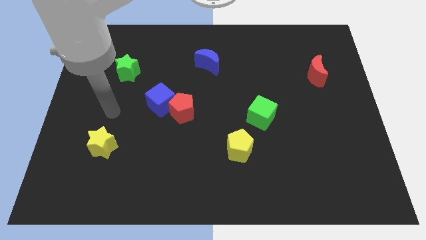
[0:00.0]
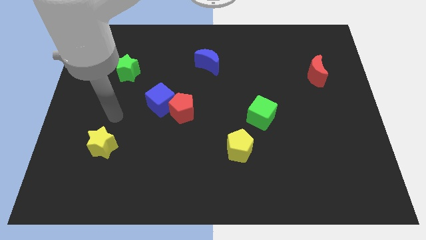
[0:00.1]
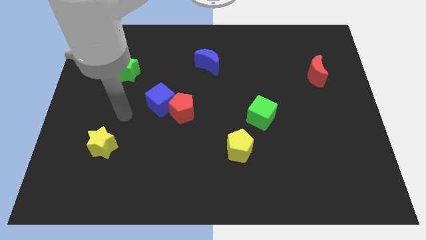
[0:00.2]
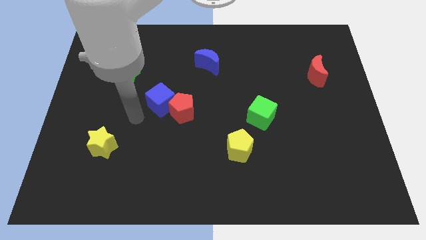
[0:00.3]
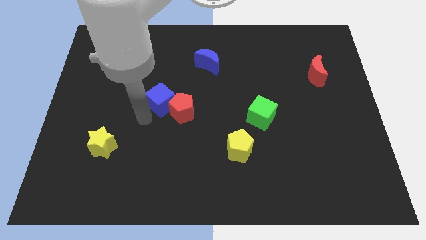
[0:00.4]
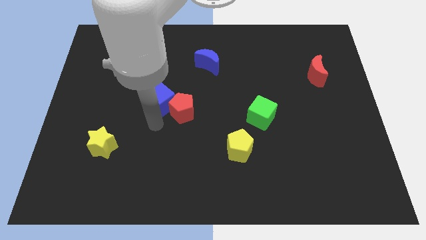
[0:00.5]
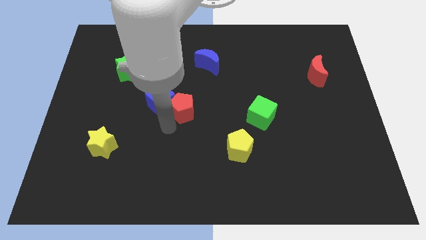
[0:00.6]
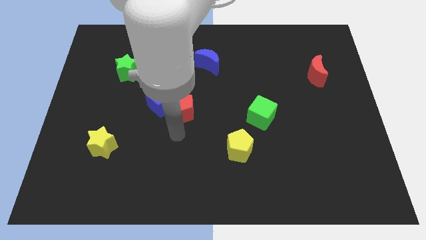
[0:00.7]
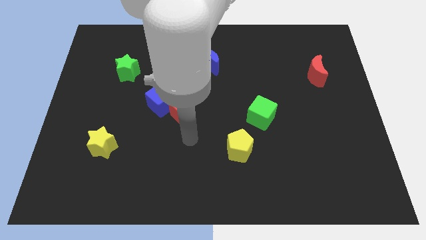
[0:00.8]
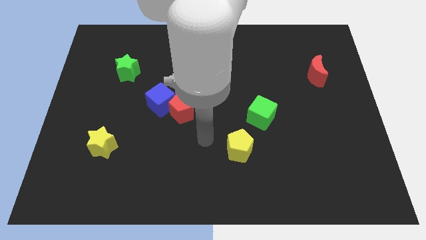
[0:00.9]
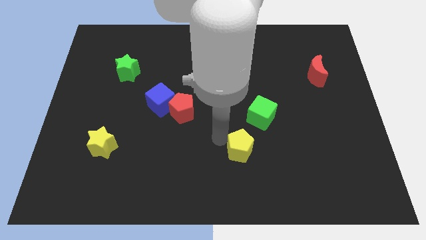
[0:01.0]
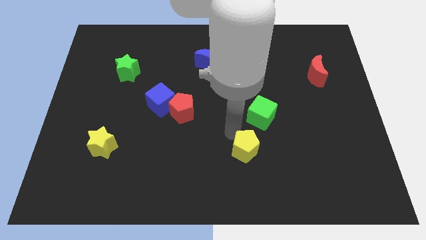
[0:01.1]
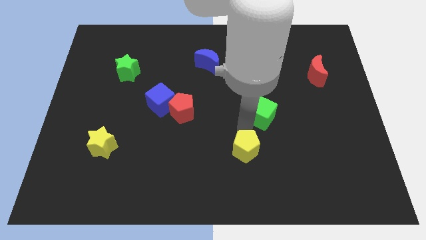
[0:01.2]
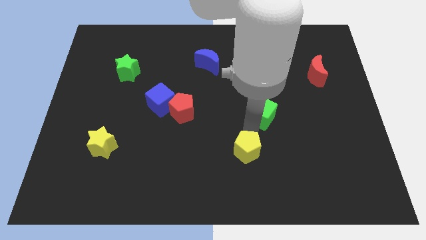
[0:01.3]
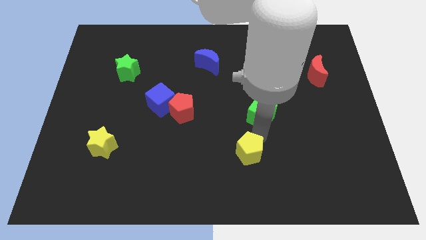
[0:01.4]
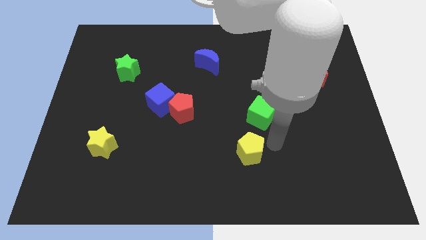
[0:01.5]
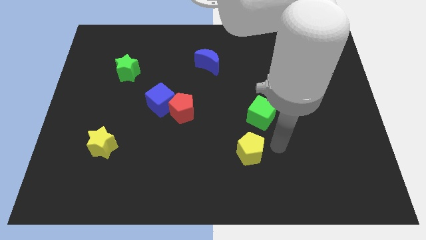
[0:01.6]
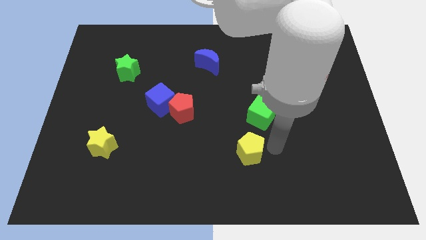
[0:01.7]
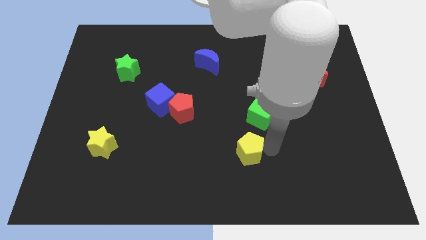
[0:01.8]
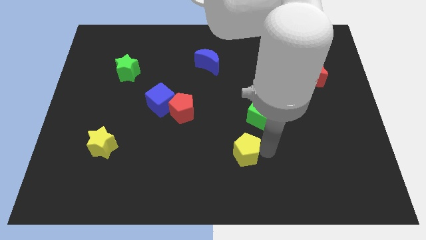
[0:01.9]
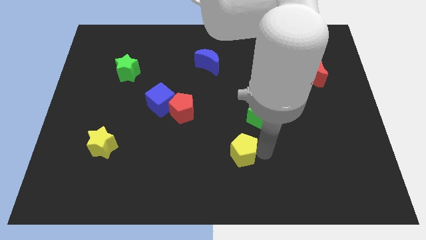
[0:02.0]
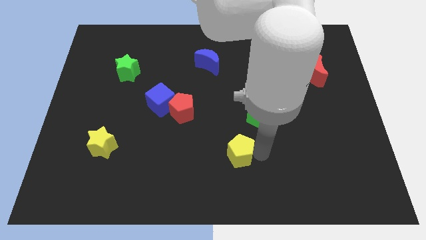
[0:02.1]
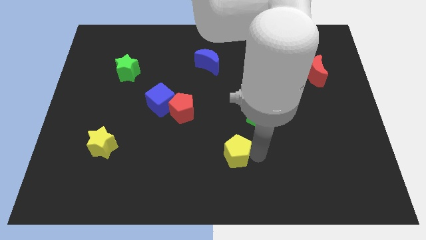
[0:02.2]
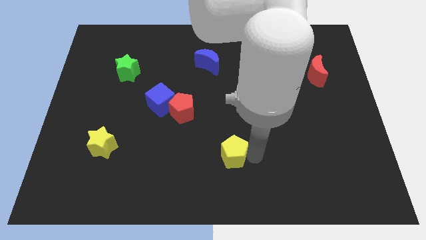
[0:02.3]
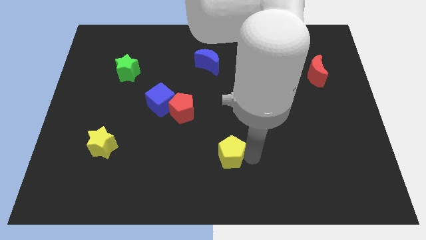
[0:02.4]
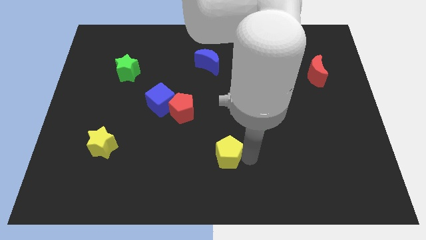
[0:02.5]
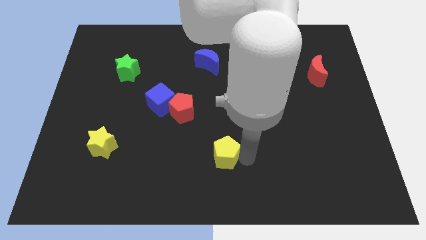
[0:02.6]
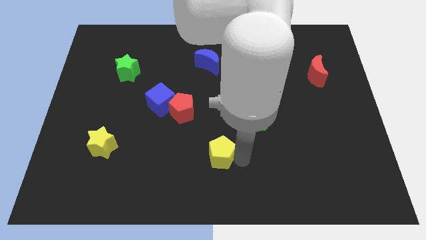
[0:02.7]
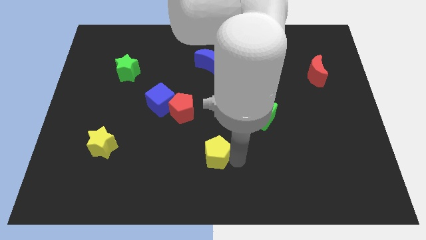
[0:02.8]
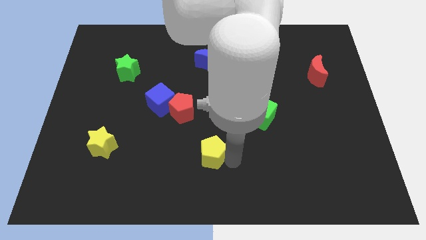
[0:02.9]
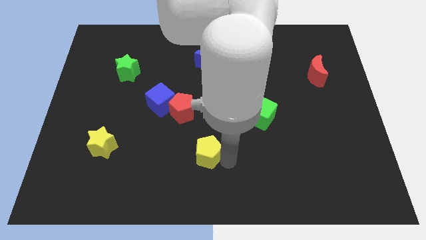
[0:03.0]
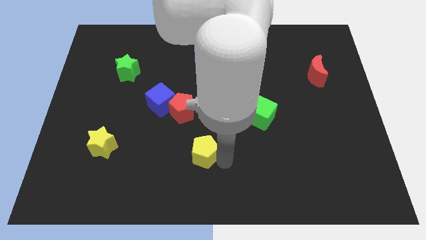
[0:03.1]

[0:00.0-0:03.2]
slightly move the yellow pentagon left

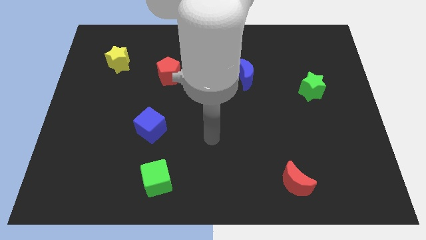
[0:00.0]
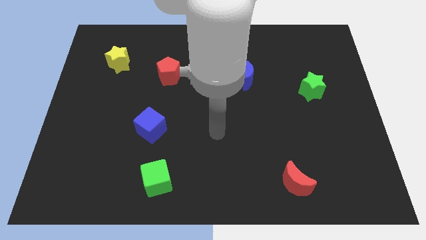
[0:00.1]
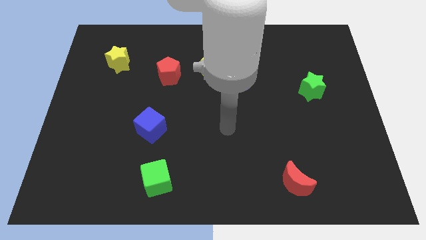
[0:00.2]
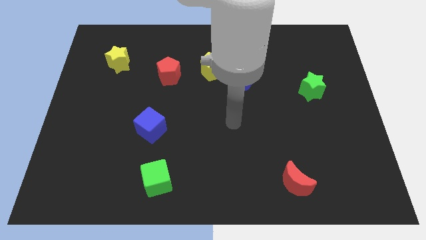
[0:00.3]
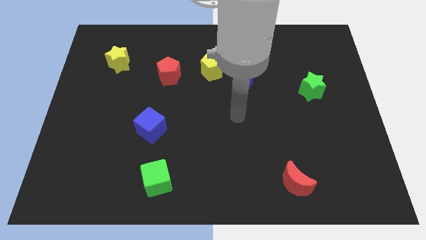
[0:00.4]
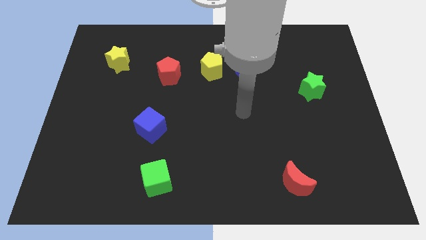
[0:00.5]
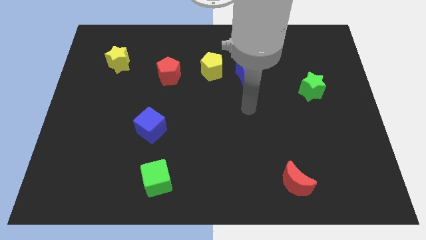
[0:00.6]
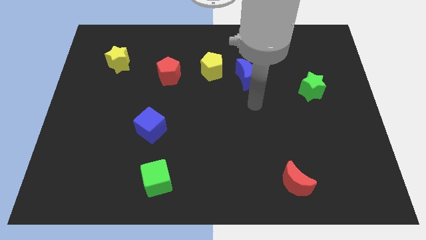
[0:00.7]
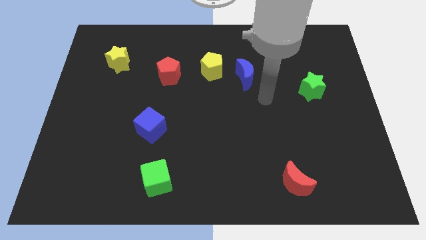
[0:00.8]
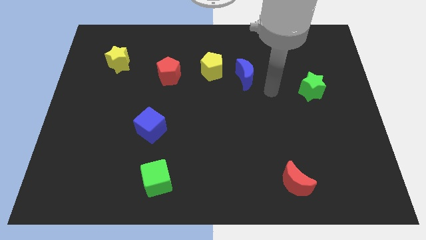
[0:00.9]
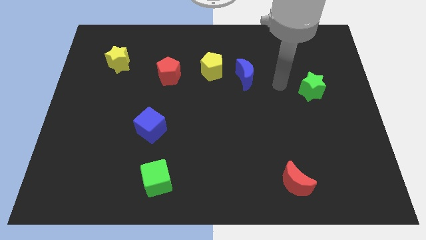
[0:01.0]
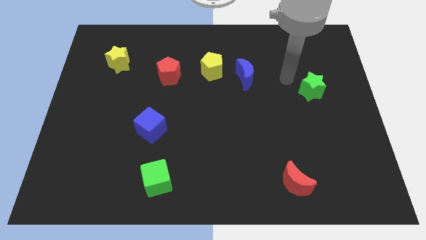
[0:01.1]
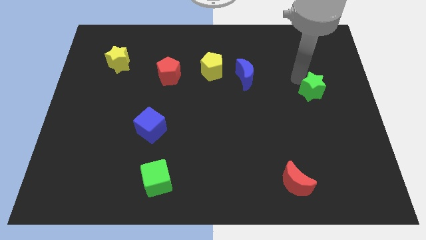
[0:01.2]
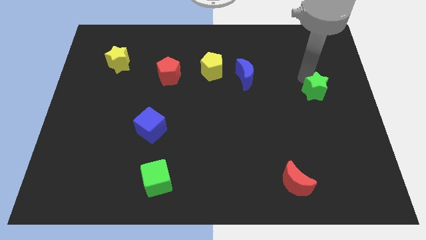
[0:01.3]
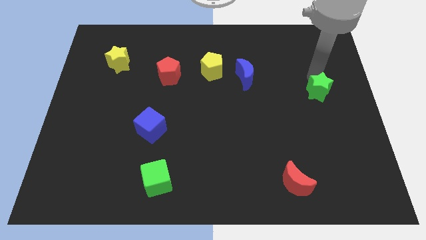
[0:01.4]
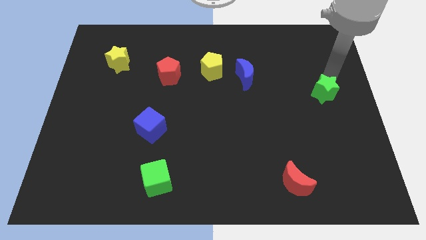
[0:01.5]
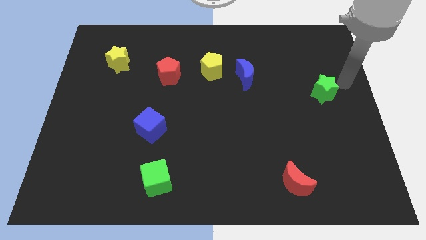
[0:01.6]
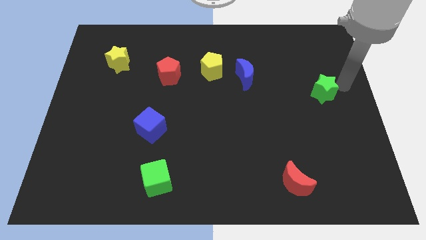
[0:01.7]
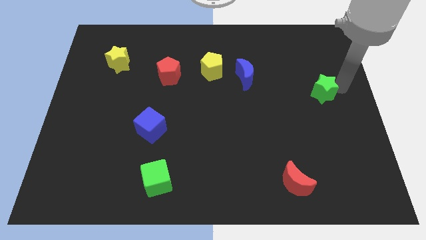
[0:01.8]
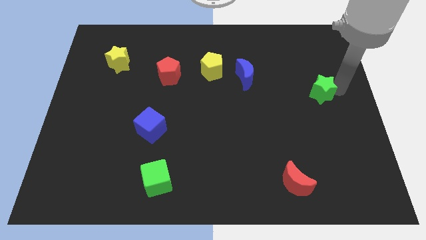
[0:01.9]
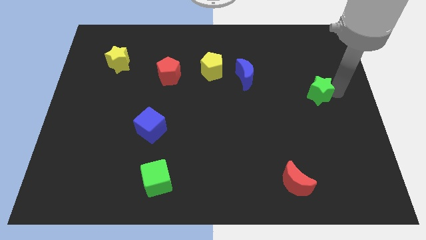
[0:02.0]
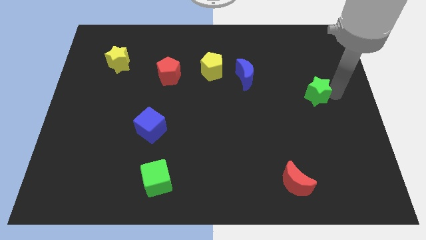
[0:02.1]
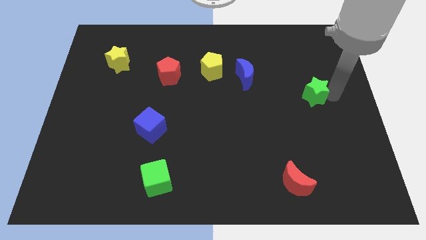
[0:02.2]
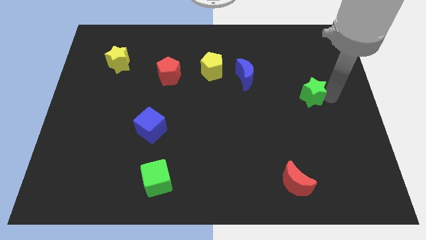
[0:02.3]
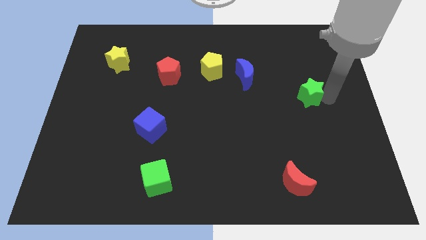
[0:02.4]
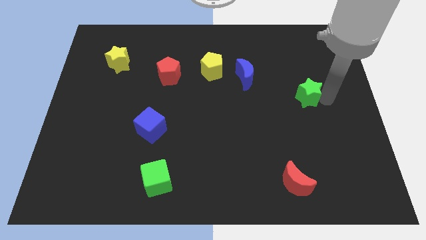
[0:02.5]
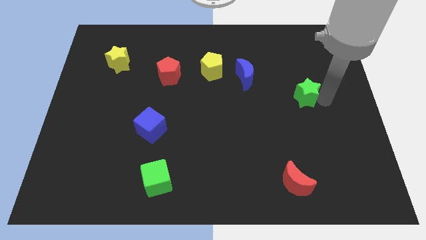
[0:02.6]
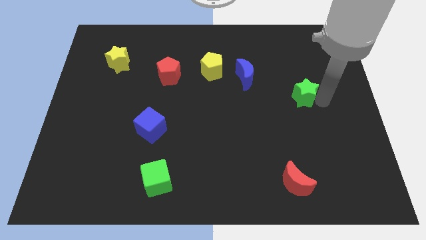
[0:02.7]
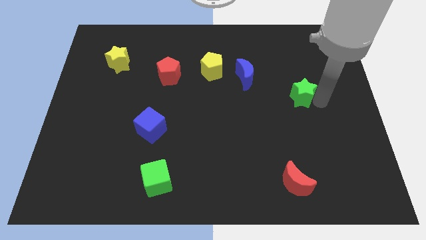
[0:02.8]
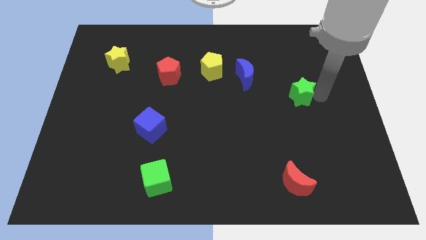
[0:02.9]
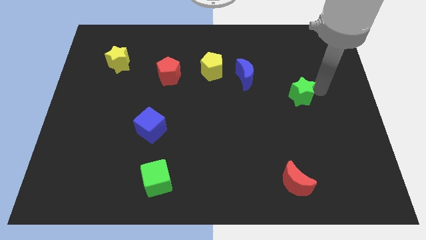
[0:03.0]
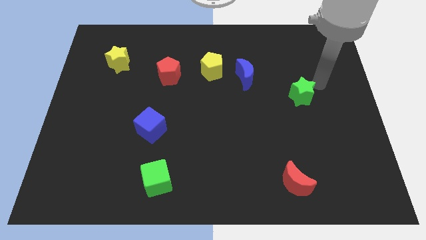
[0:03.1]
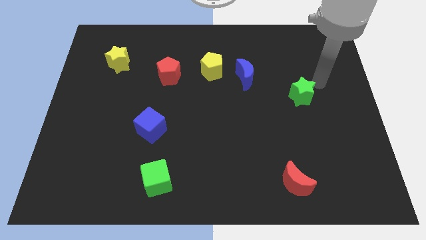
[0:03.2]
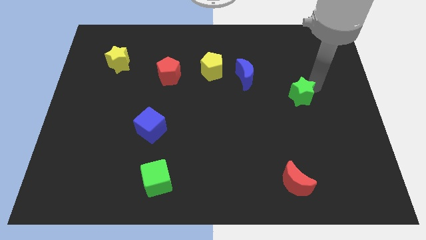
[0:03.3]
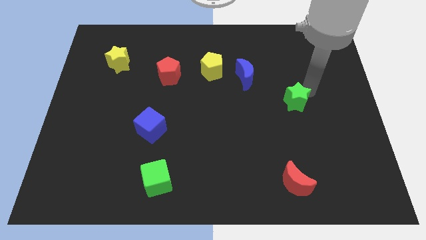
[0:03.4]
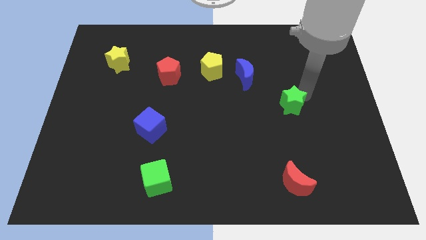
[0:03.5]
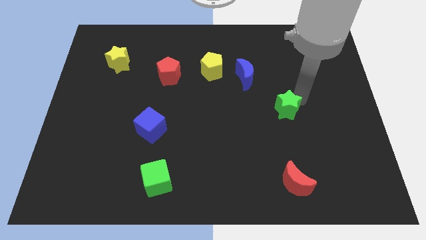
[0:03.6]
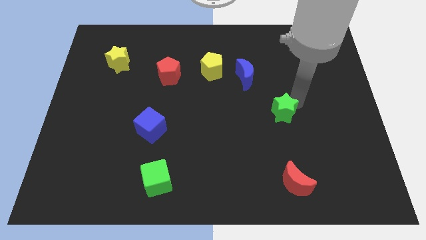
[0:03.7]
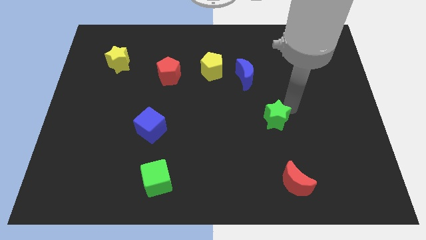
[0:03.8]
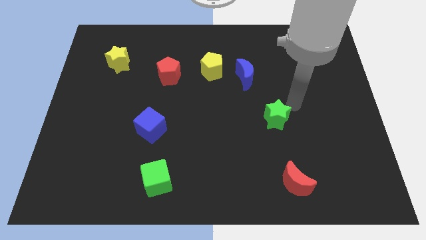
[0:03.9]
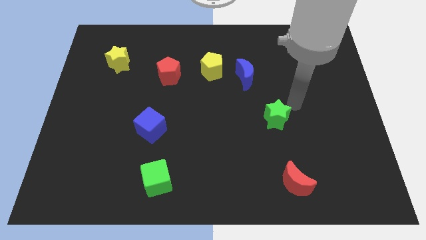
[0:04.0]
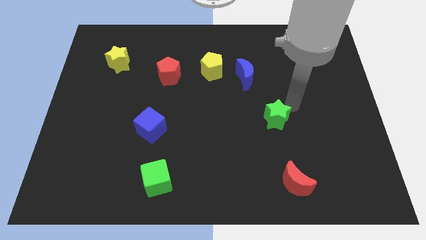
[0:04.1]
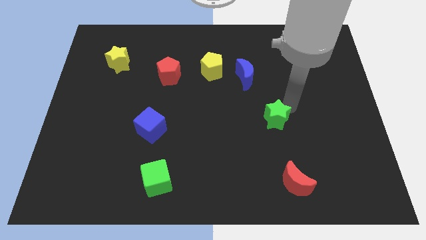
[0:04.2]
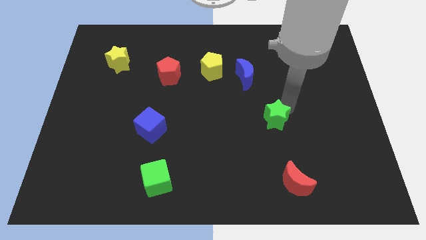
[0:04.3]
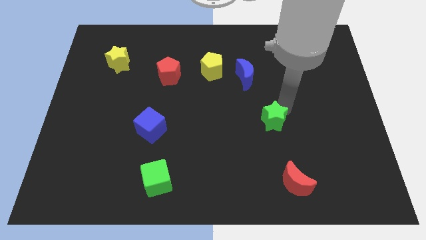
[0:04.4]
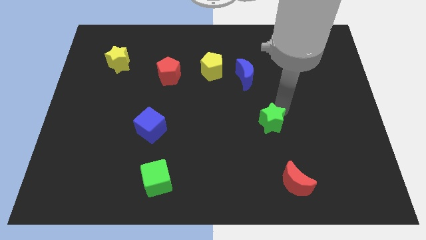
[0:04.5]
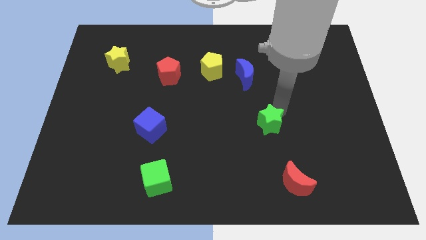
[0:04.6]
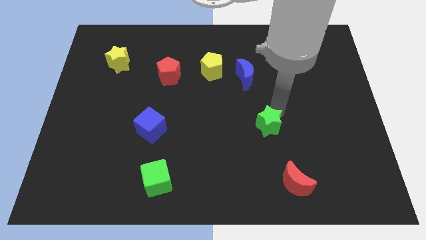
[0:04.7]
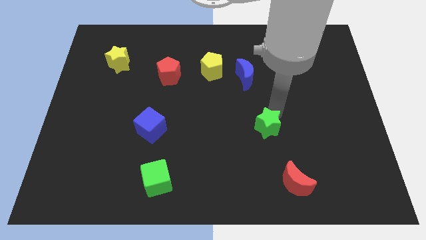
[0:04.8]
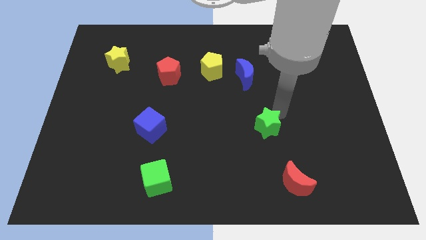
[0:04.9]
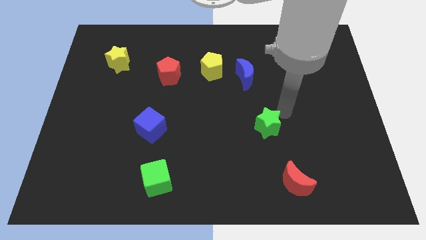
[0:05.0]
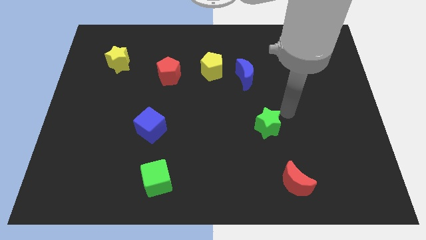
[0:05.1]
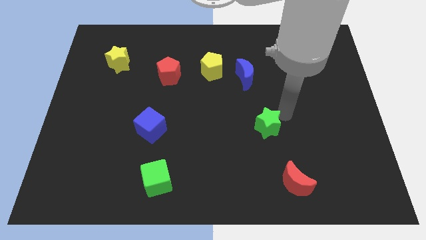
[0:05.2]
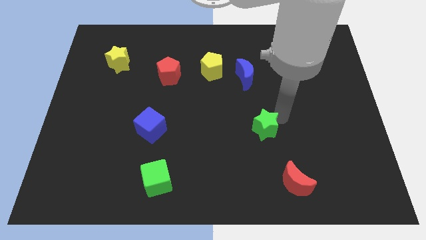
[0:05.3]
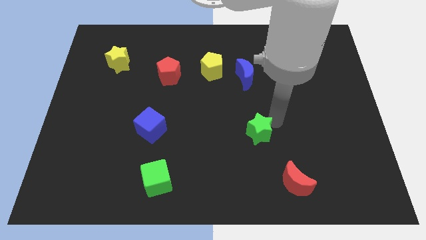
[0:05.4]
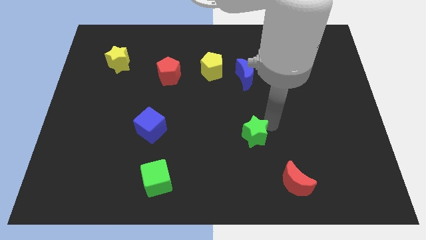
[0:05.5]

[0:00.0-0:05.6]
push the green star downwards and left
